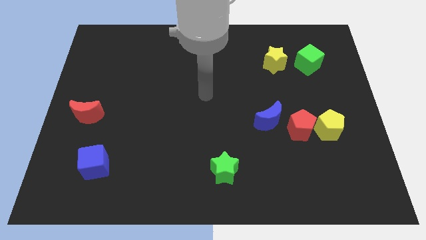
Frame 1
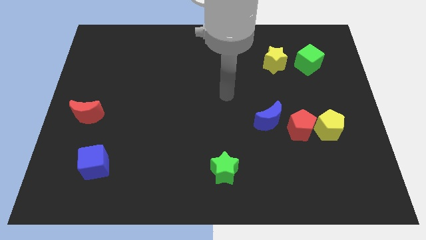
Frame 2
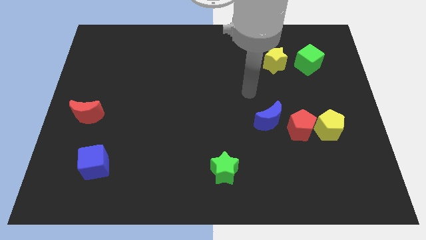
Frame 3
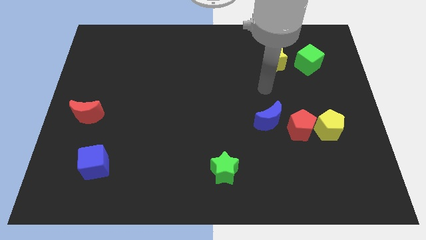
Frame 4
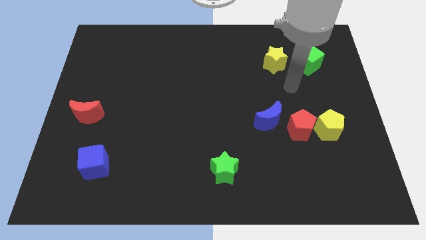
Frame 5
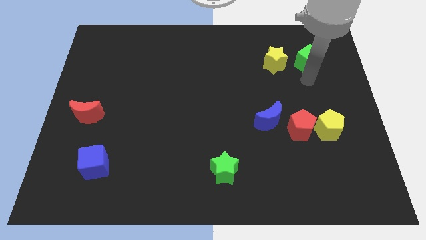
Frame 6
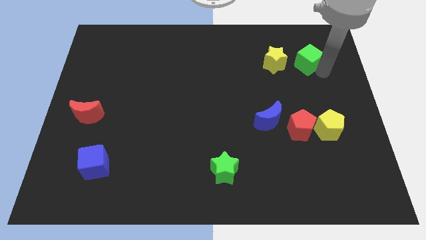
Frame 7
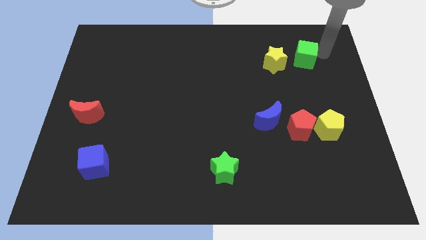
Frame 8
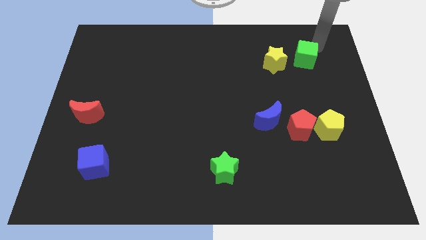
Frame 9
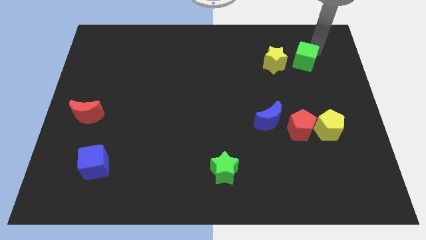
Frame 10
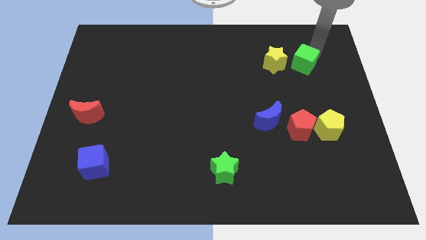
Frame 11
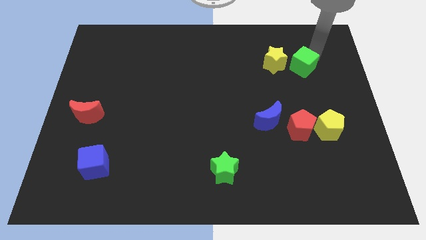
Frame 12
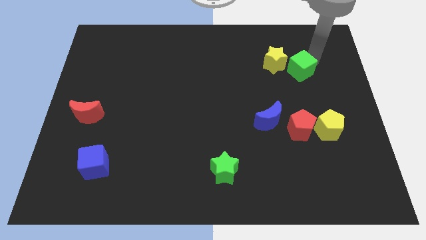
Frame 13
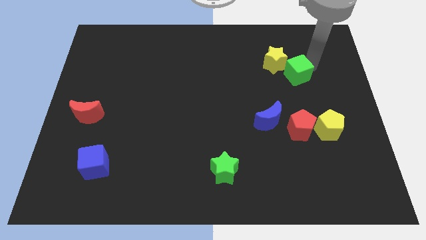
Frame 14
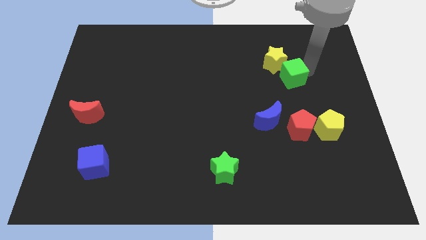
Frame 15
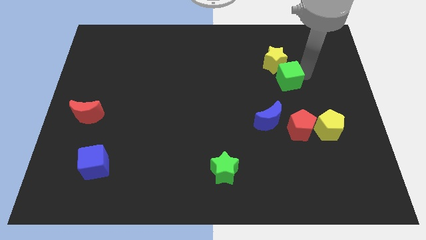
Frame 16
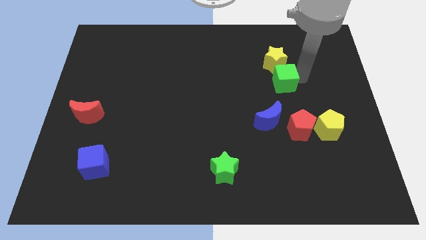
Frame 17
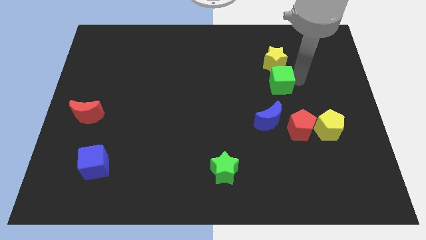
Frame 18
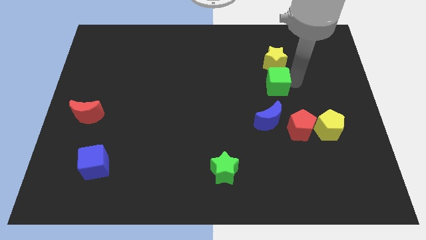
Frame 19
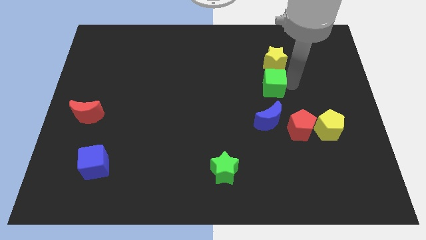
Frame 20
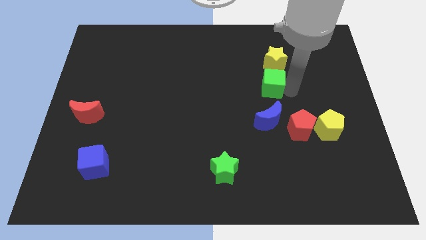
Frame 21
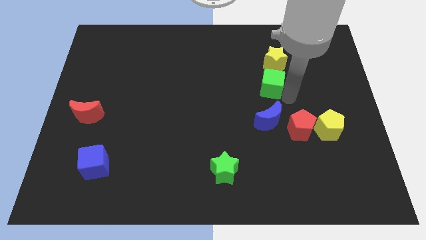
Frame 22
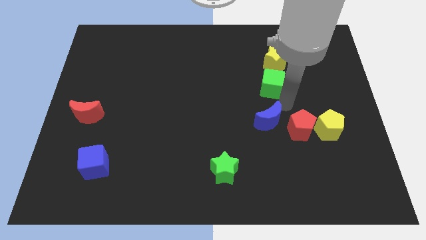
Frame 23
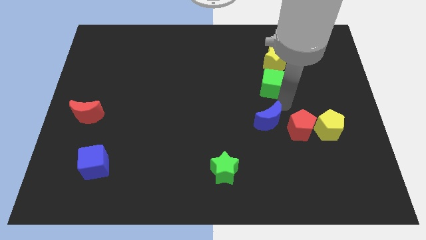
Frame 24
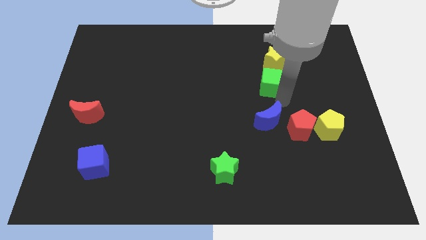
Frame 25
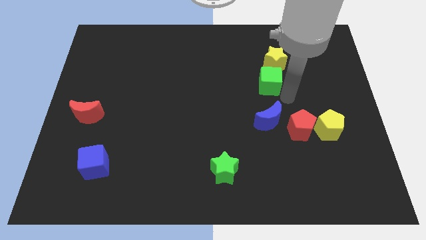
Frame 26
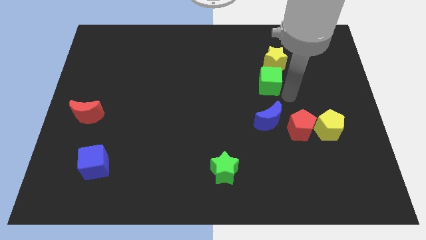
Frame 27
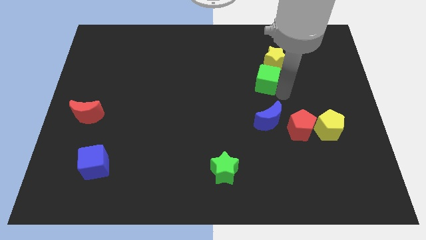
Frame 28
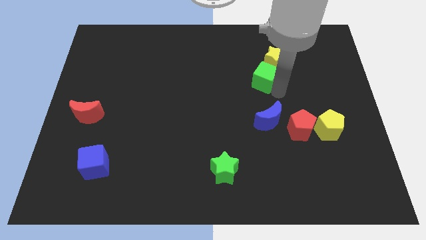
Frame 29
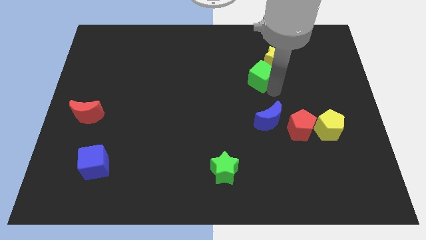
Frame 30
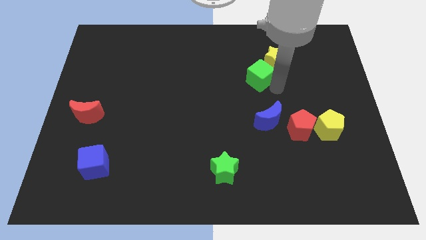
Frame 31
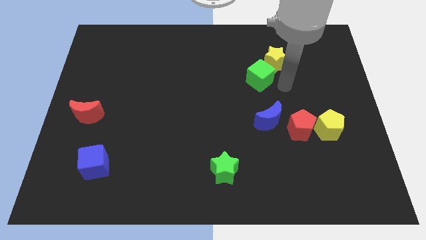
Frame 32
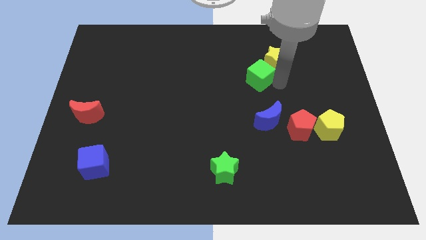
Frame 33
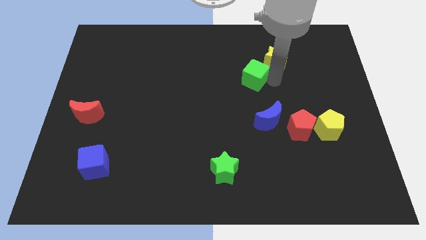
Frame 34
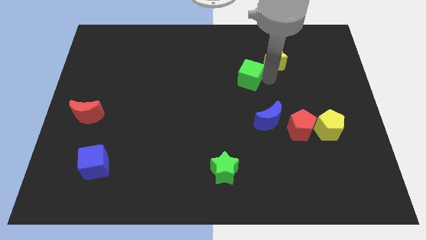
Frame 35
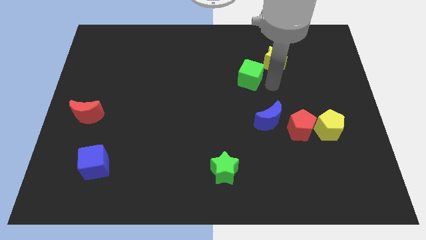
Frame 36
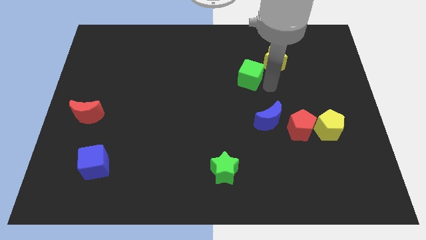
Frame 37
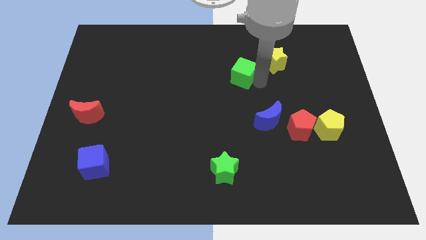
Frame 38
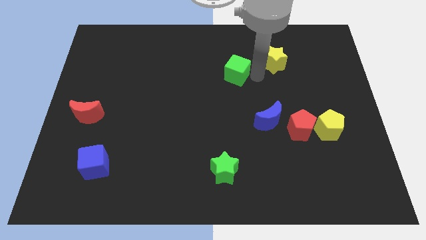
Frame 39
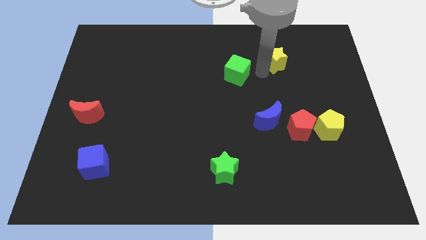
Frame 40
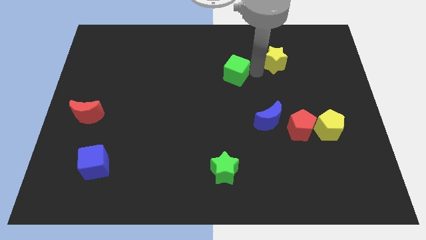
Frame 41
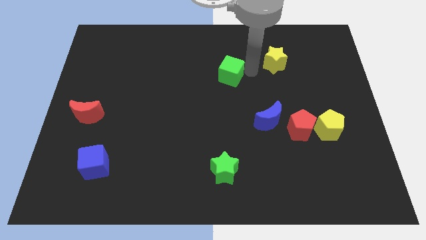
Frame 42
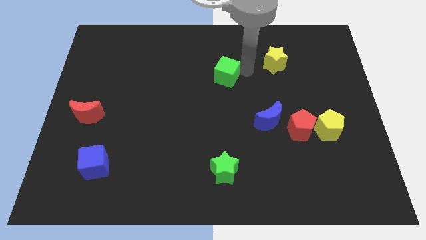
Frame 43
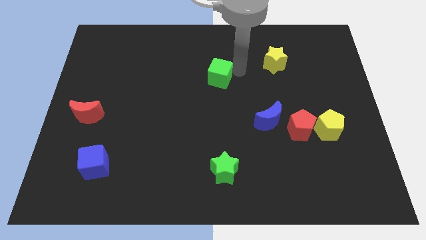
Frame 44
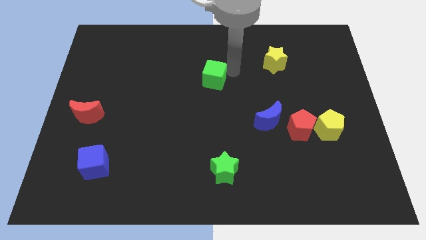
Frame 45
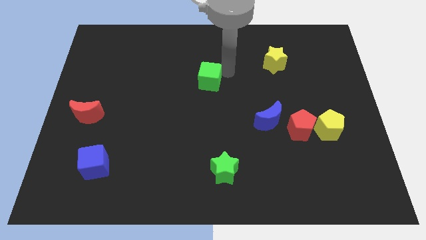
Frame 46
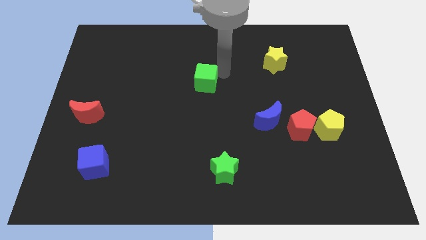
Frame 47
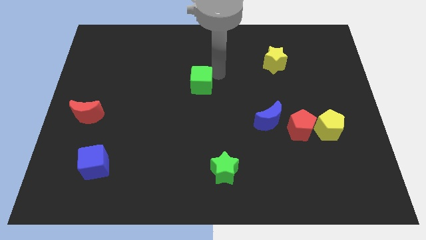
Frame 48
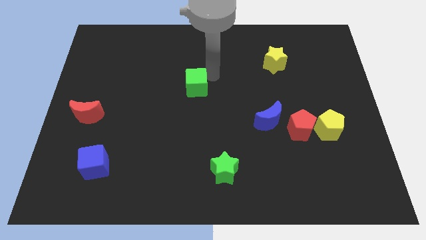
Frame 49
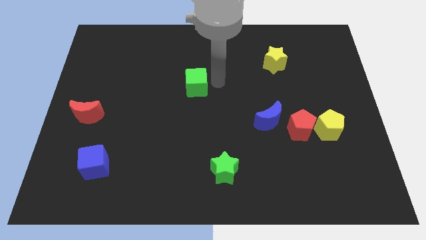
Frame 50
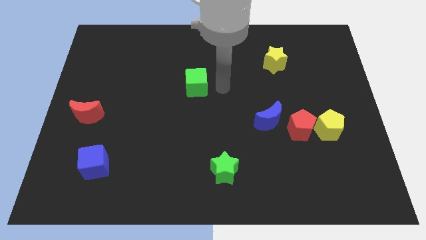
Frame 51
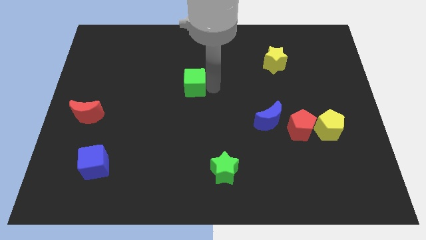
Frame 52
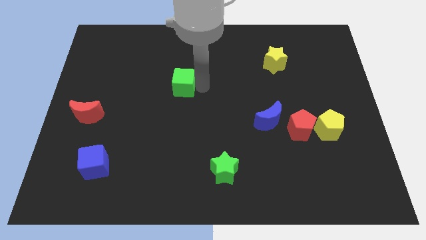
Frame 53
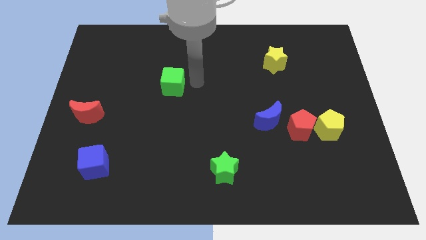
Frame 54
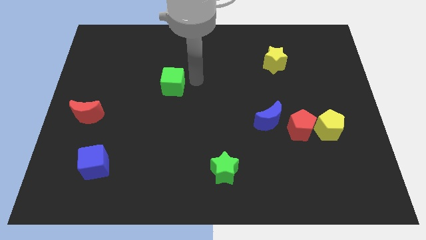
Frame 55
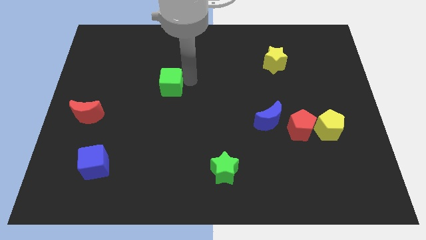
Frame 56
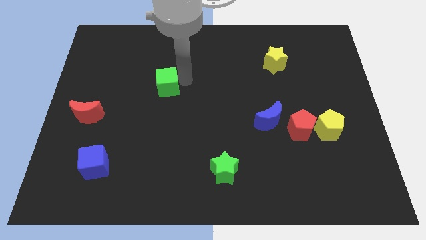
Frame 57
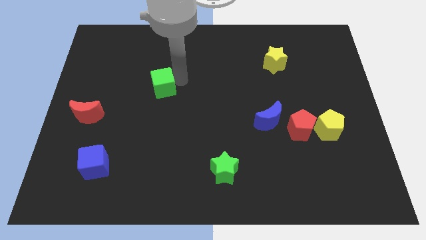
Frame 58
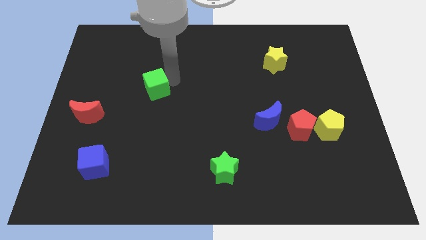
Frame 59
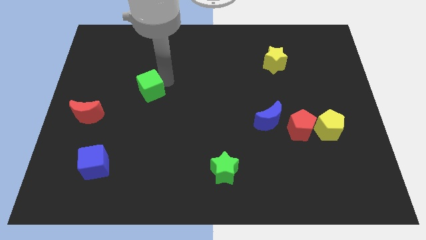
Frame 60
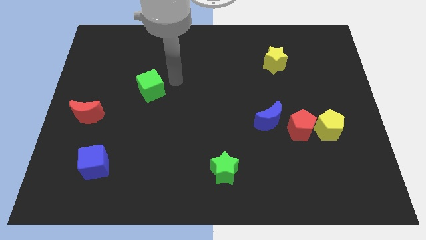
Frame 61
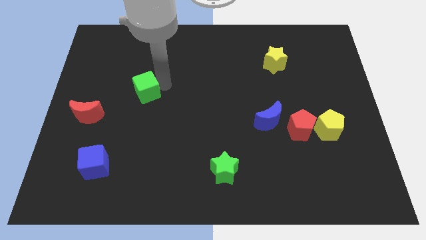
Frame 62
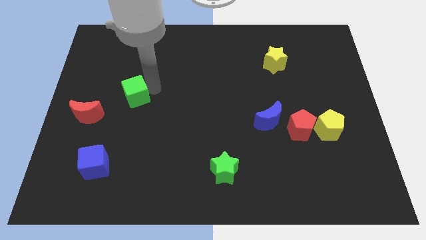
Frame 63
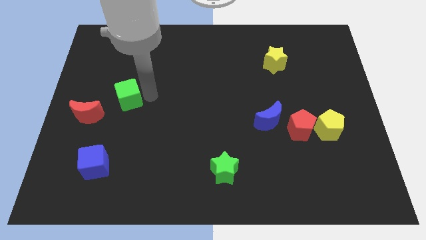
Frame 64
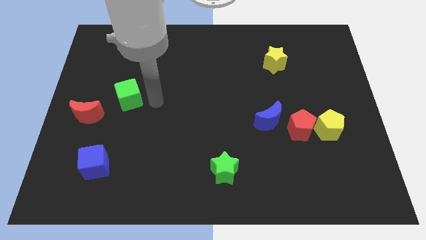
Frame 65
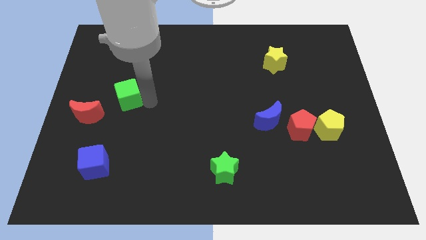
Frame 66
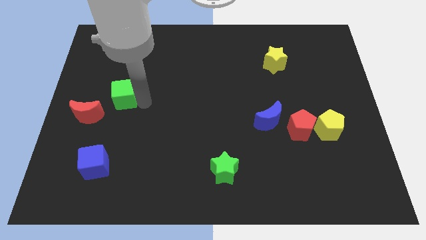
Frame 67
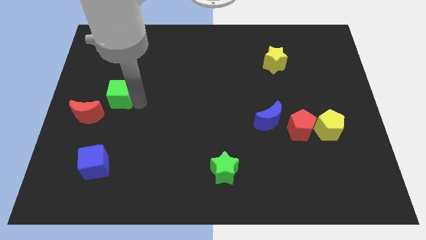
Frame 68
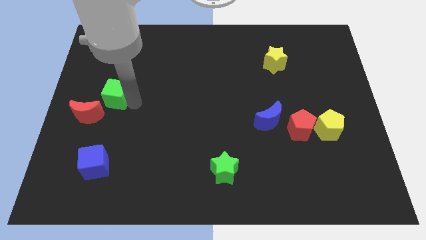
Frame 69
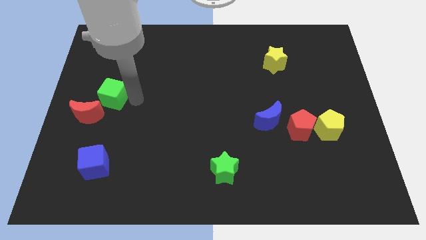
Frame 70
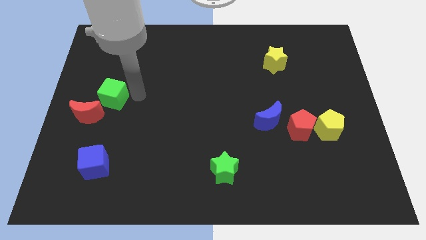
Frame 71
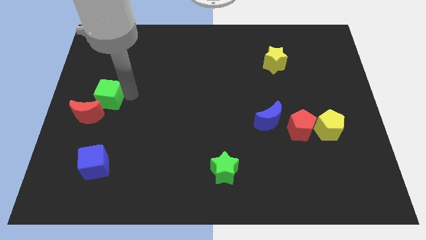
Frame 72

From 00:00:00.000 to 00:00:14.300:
put the green cube to the left side of the board

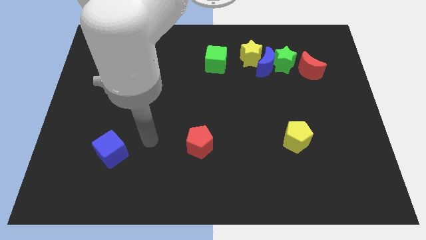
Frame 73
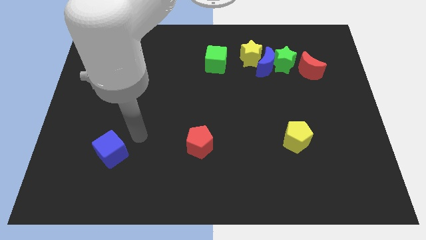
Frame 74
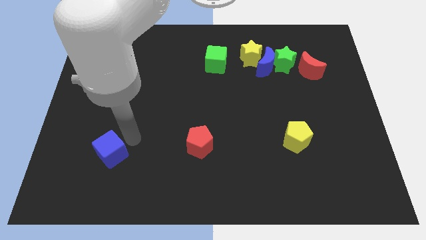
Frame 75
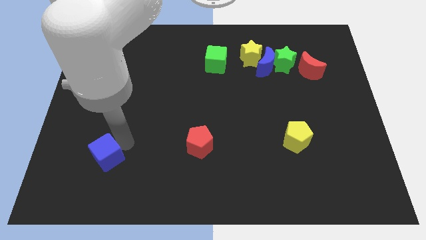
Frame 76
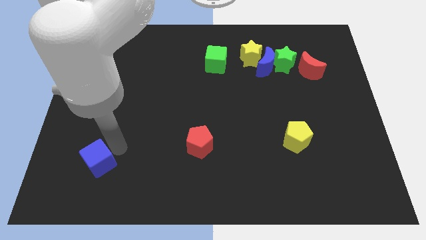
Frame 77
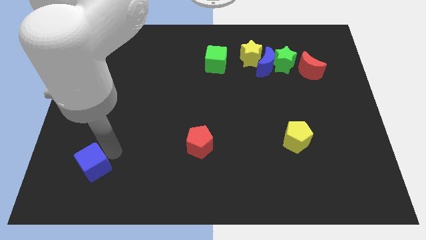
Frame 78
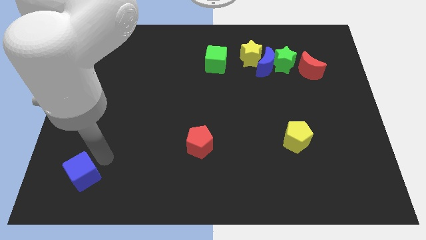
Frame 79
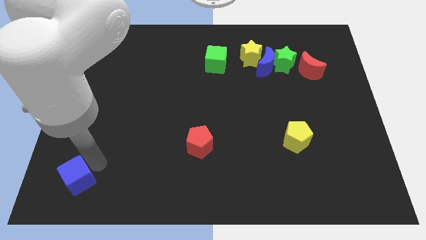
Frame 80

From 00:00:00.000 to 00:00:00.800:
put the blue cube to the bottom left of the board
